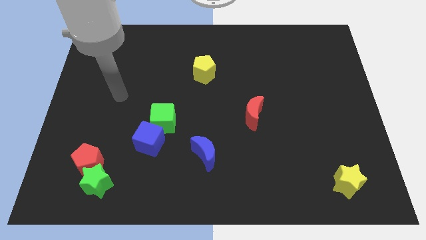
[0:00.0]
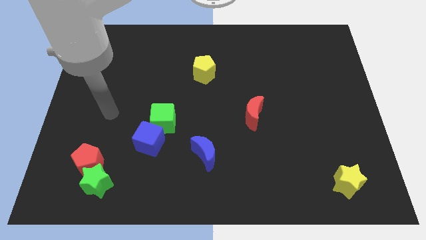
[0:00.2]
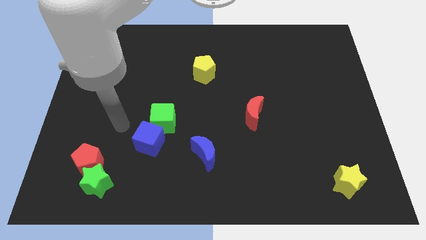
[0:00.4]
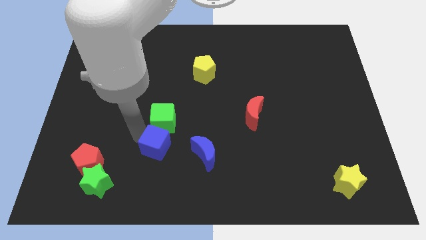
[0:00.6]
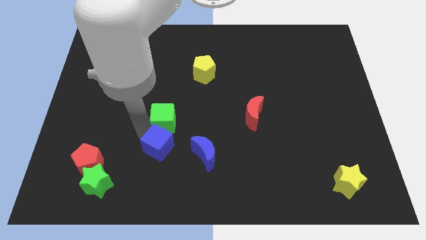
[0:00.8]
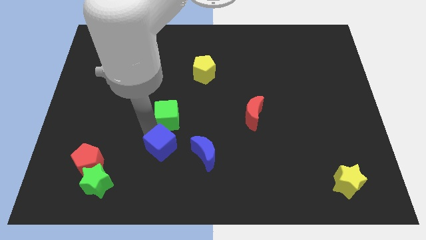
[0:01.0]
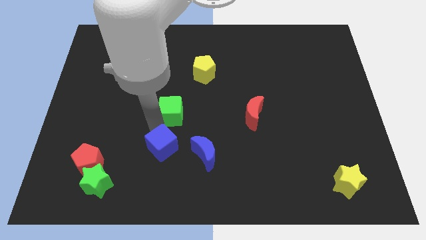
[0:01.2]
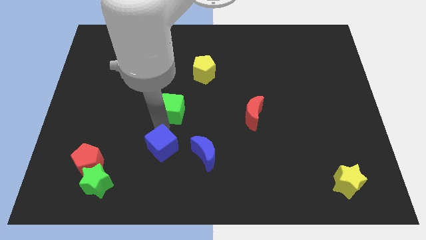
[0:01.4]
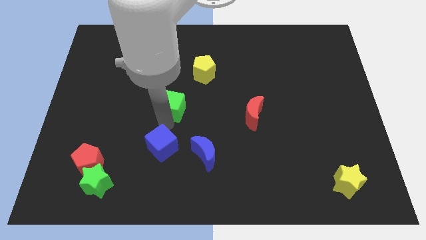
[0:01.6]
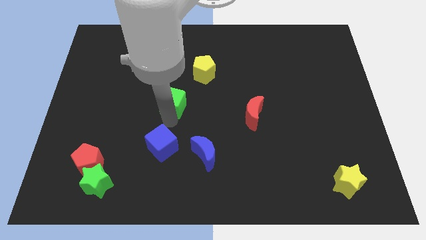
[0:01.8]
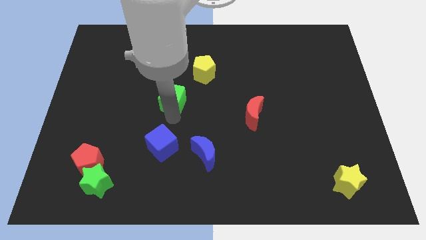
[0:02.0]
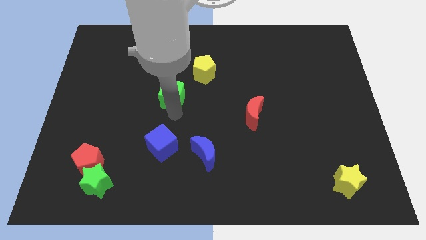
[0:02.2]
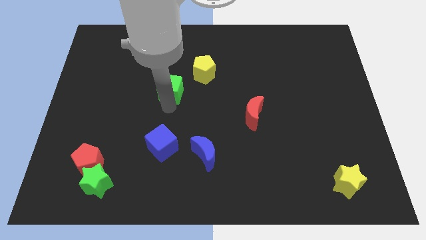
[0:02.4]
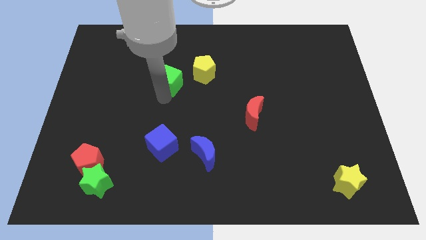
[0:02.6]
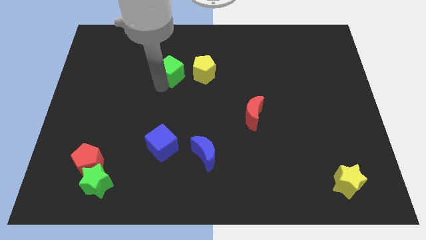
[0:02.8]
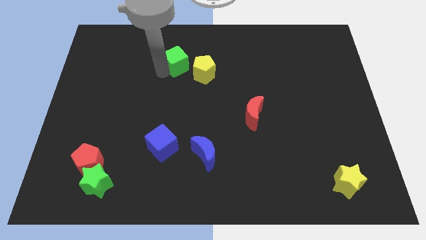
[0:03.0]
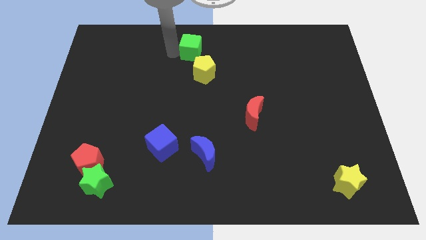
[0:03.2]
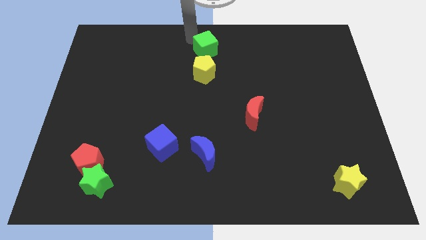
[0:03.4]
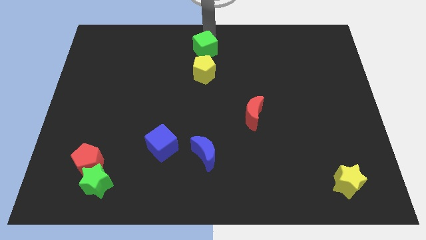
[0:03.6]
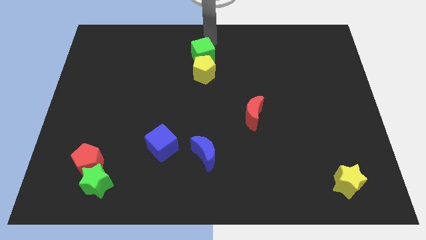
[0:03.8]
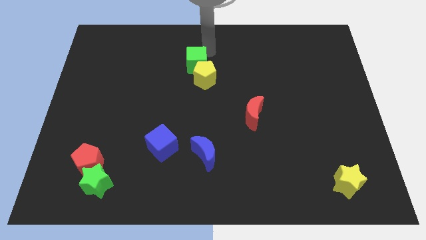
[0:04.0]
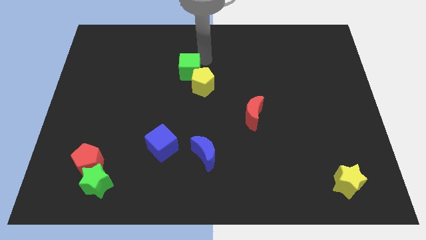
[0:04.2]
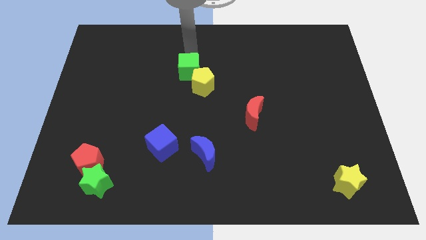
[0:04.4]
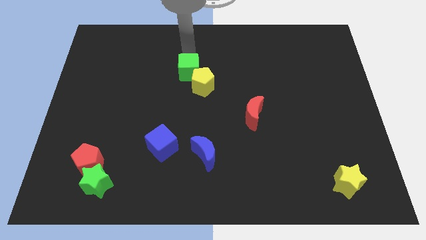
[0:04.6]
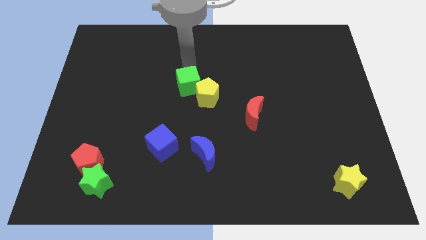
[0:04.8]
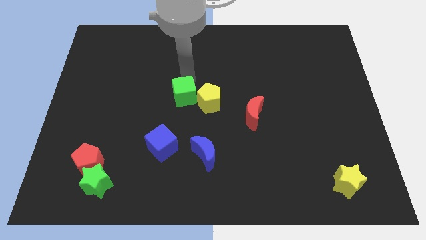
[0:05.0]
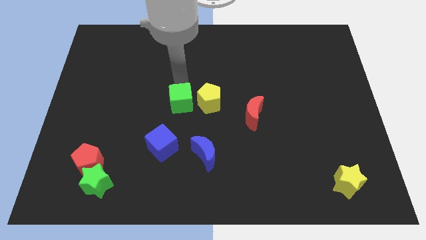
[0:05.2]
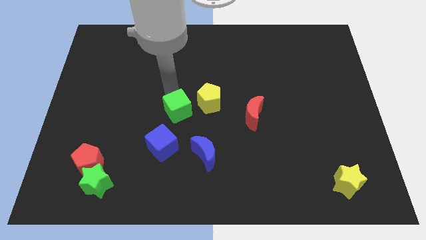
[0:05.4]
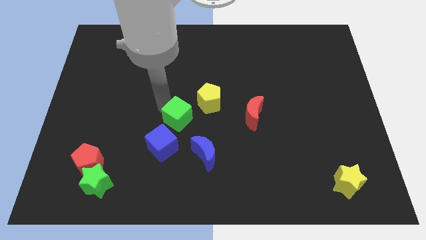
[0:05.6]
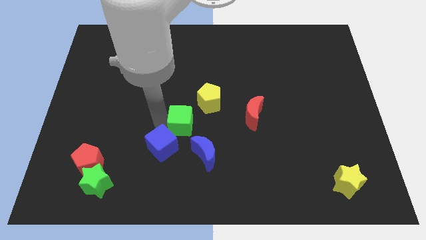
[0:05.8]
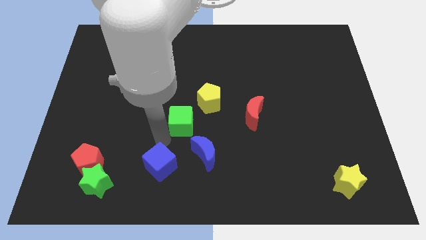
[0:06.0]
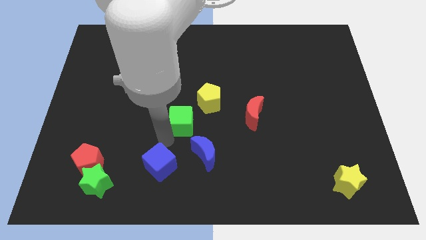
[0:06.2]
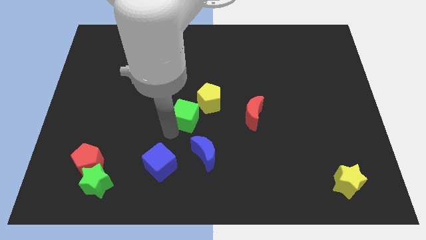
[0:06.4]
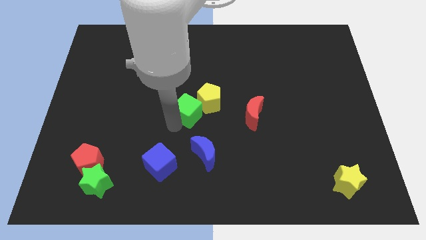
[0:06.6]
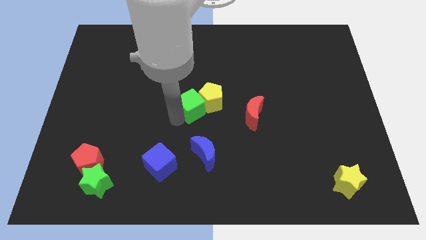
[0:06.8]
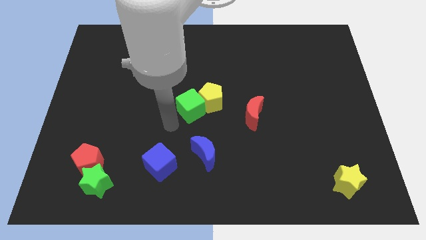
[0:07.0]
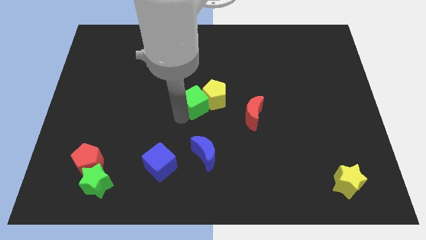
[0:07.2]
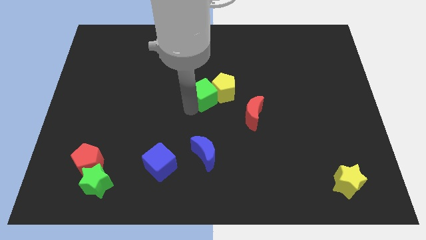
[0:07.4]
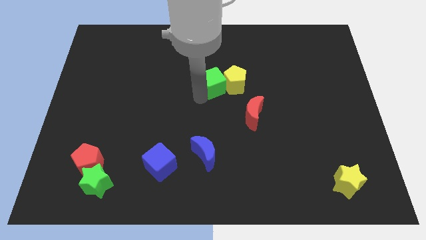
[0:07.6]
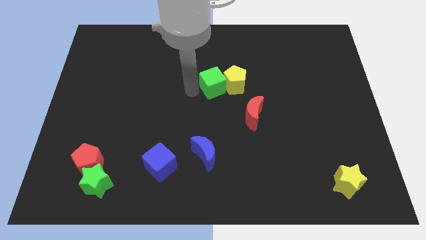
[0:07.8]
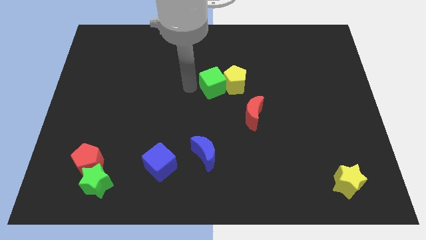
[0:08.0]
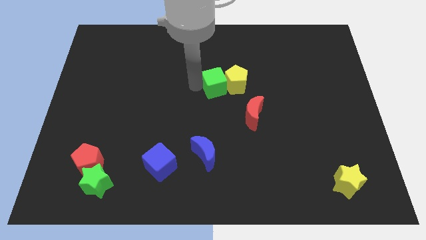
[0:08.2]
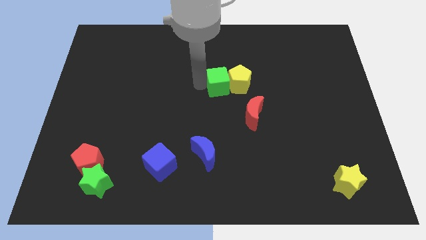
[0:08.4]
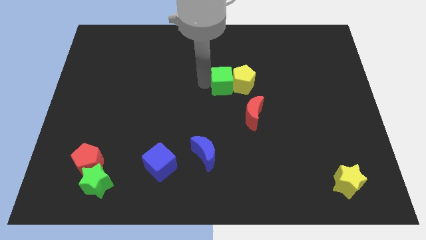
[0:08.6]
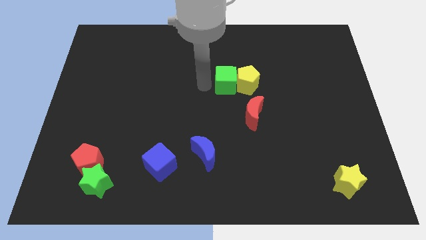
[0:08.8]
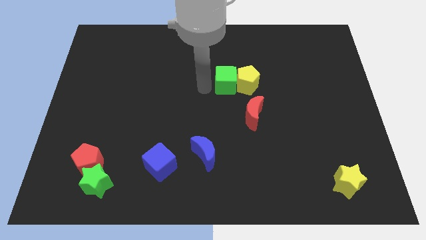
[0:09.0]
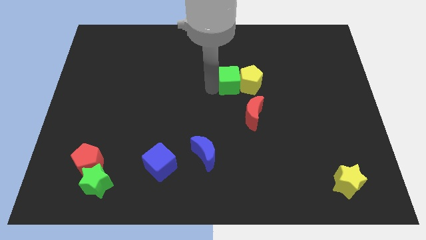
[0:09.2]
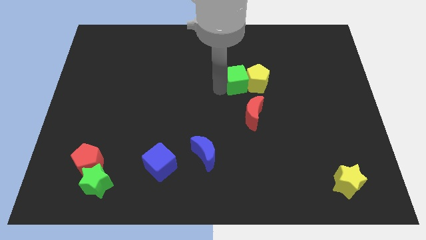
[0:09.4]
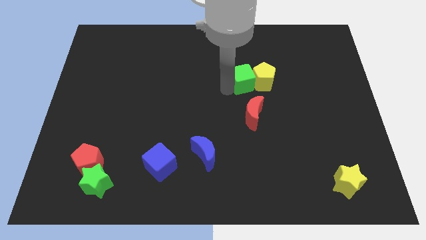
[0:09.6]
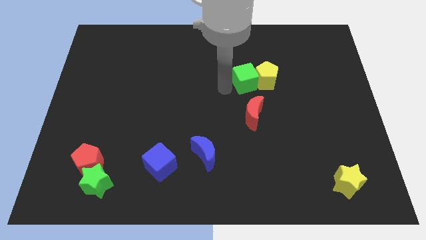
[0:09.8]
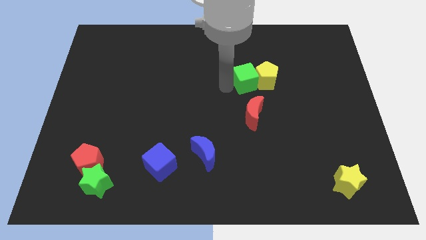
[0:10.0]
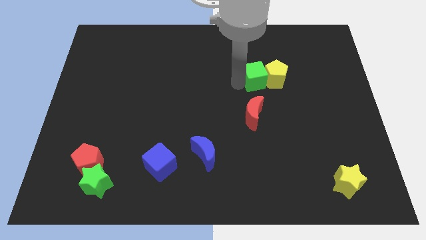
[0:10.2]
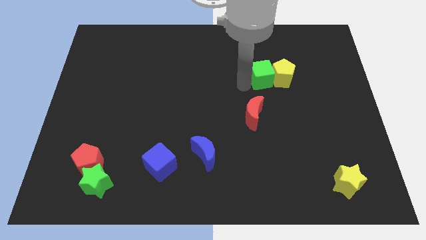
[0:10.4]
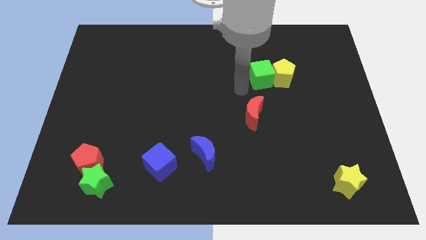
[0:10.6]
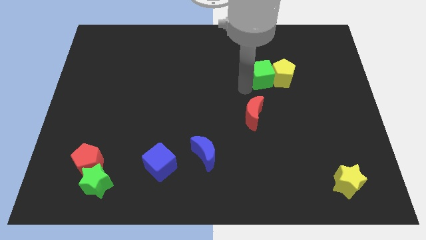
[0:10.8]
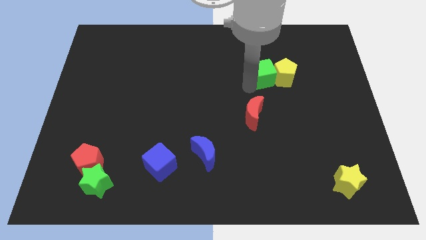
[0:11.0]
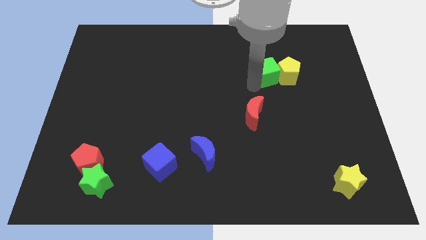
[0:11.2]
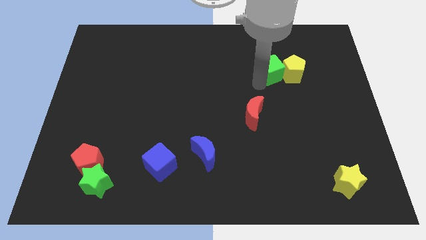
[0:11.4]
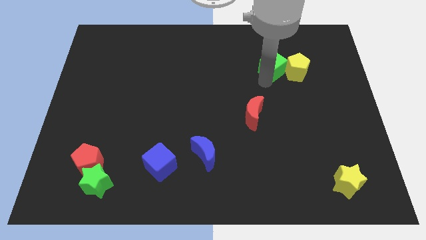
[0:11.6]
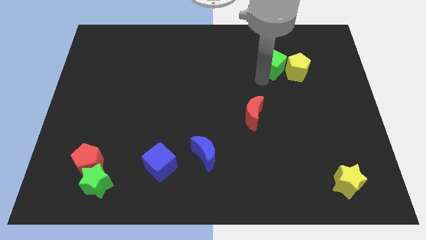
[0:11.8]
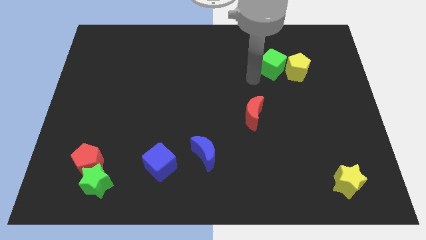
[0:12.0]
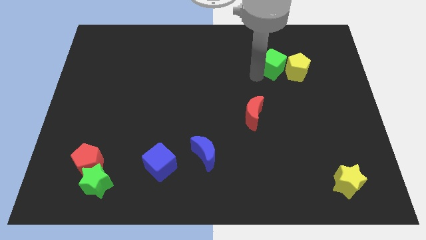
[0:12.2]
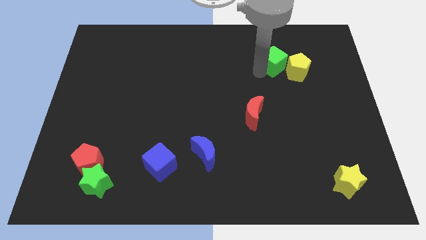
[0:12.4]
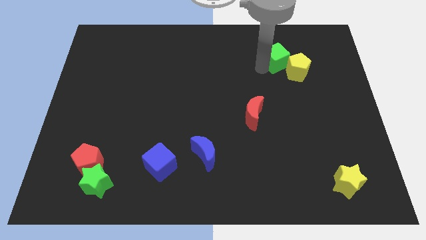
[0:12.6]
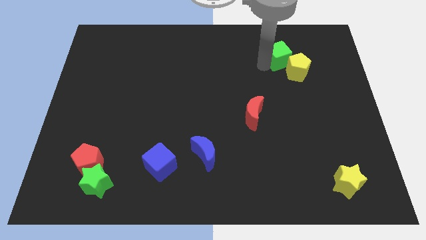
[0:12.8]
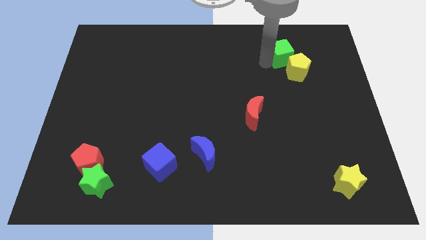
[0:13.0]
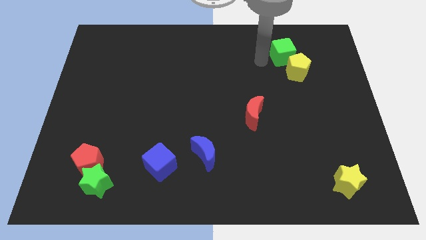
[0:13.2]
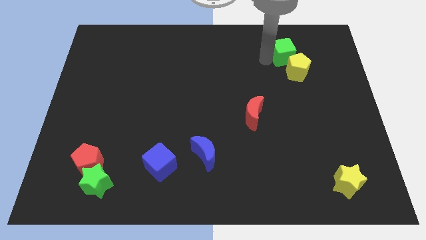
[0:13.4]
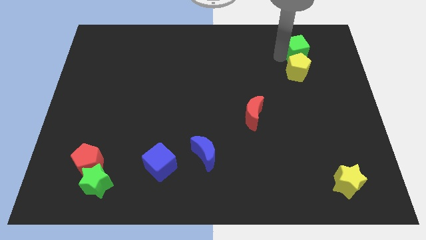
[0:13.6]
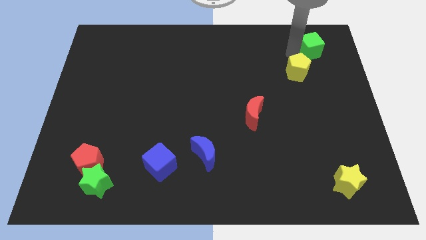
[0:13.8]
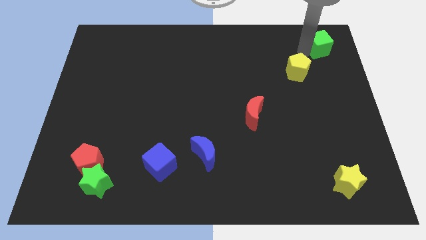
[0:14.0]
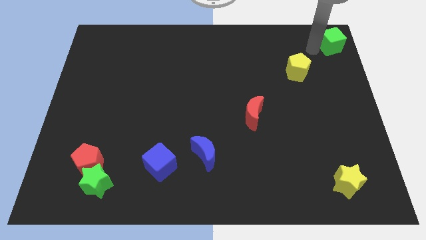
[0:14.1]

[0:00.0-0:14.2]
push the green cube to the top right
